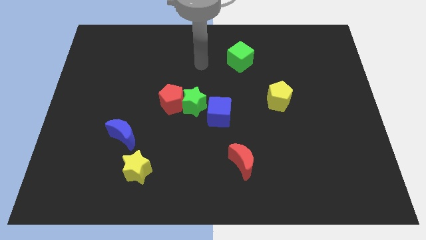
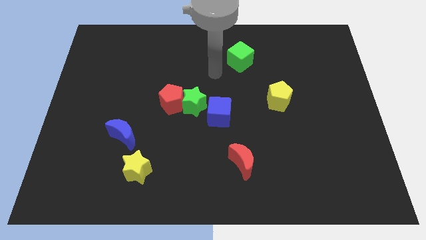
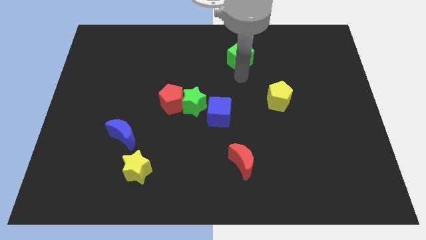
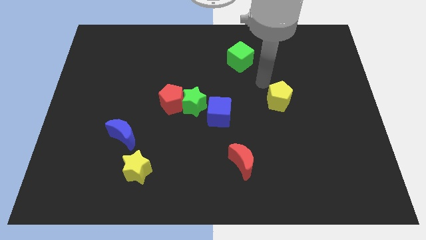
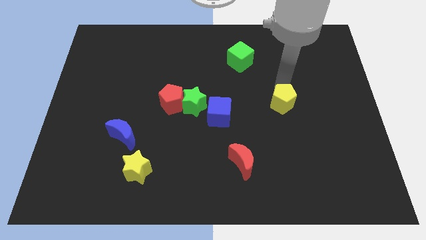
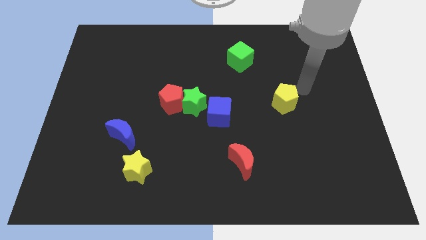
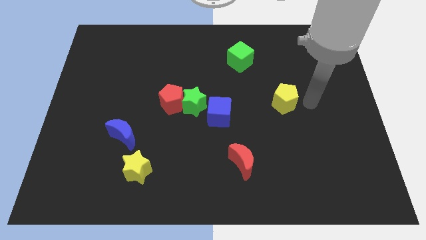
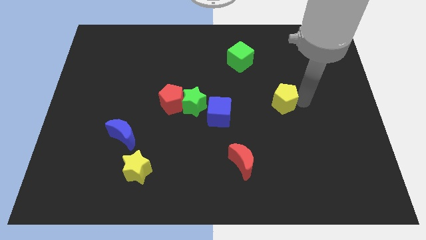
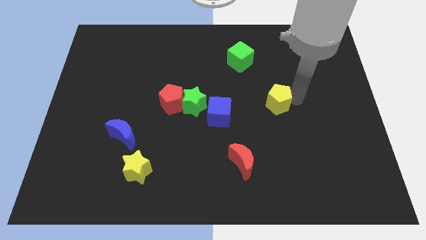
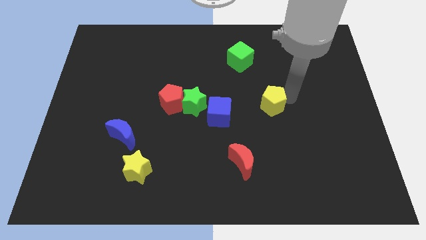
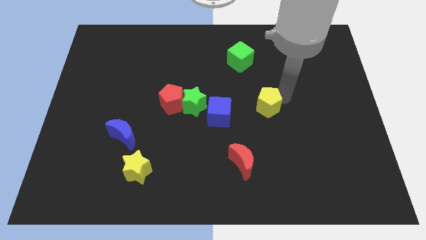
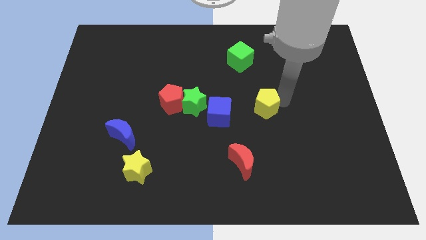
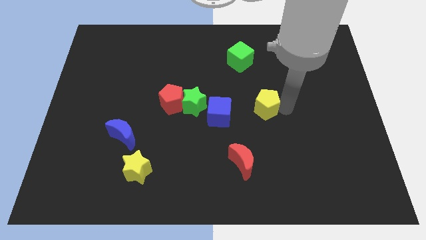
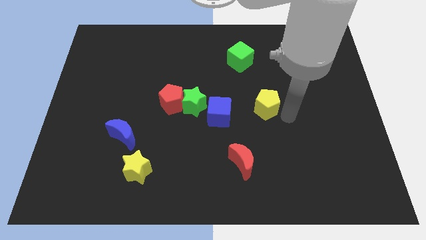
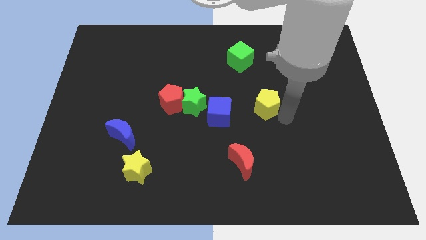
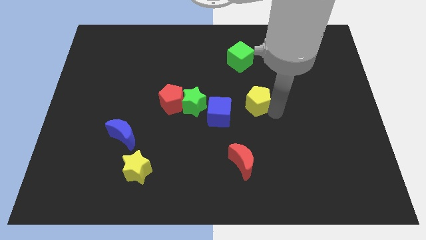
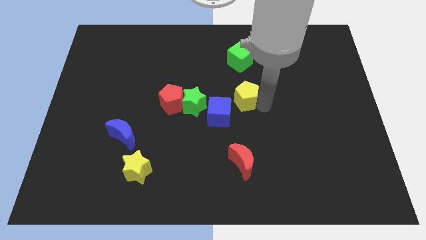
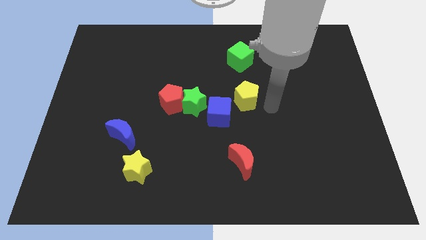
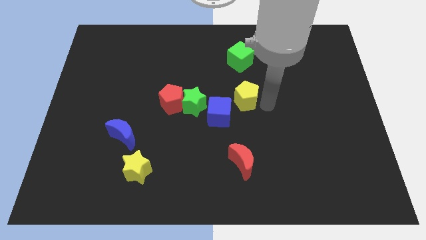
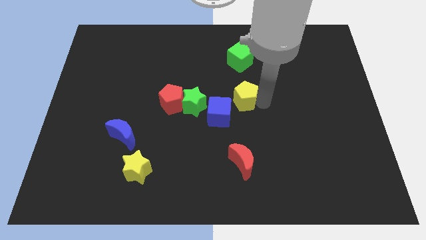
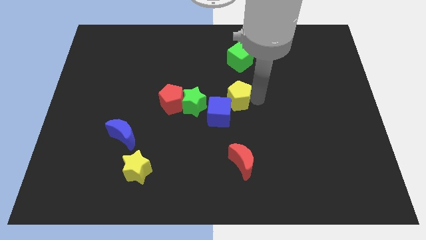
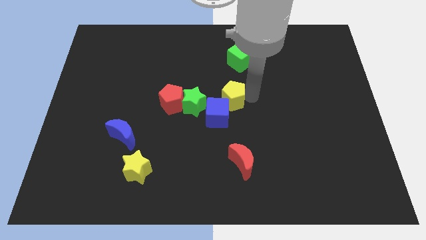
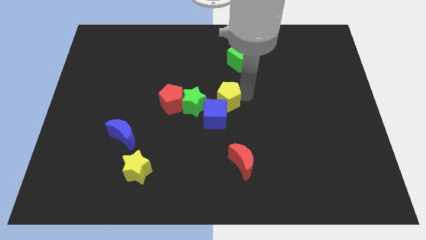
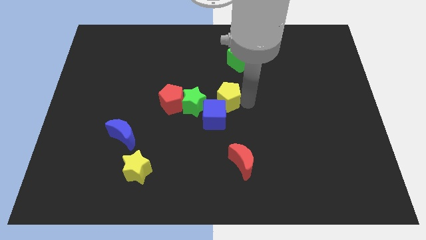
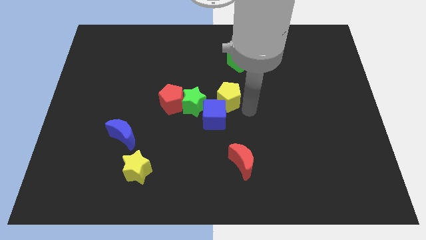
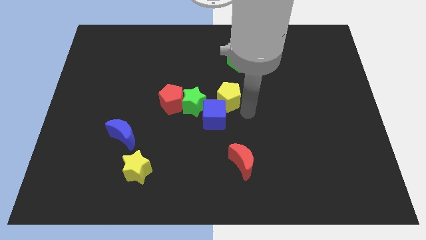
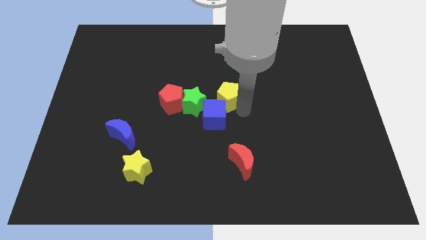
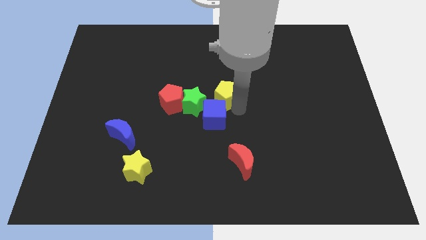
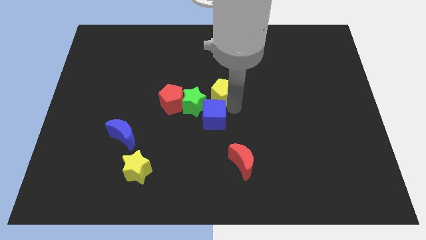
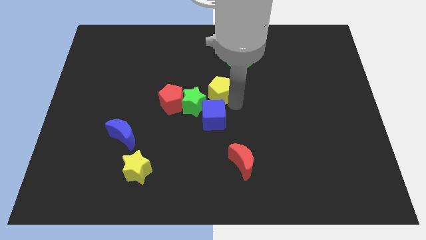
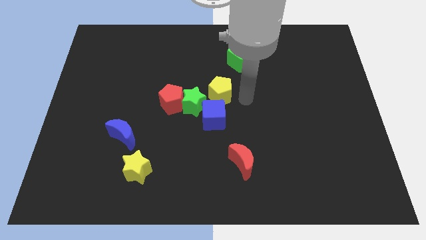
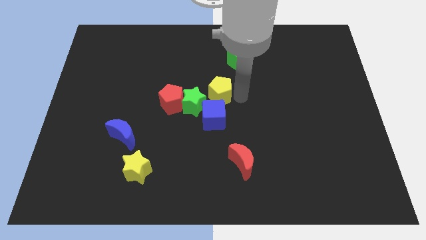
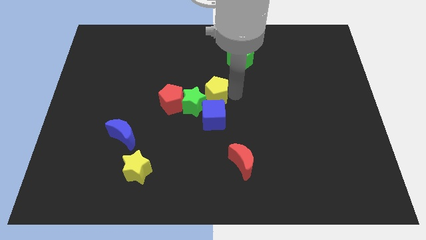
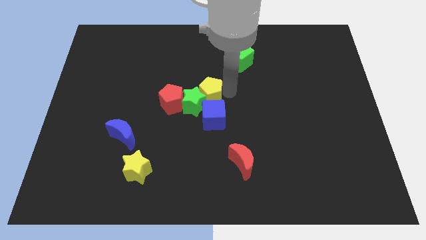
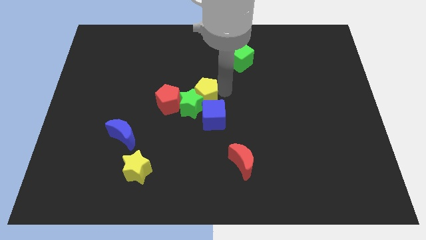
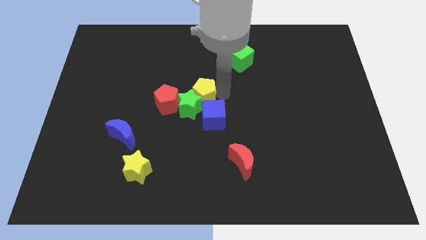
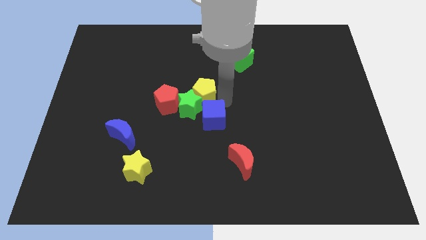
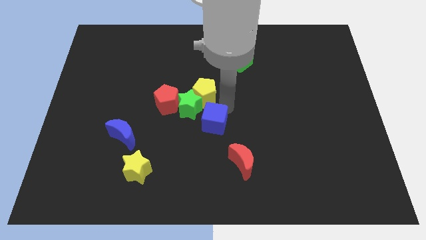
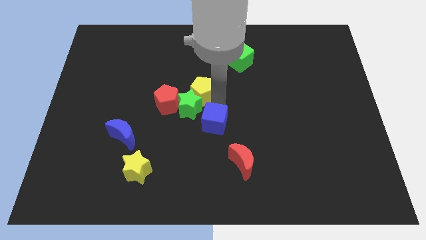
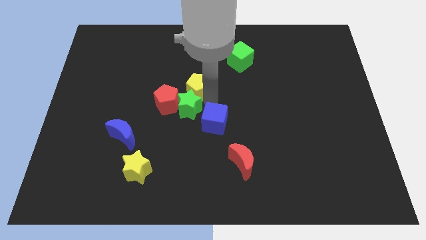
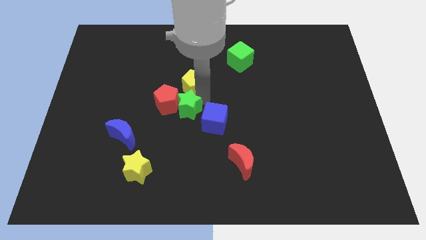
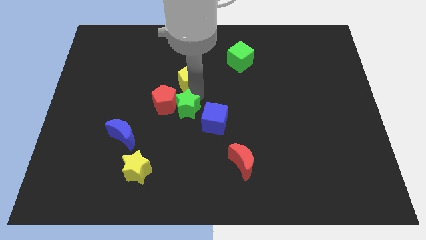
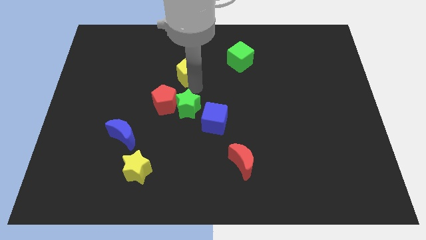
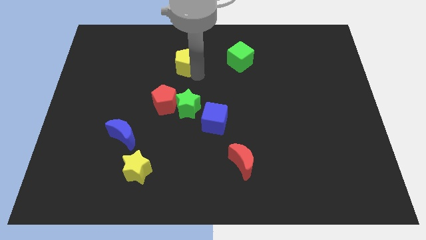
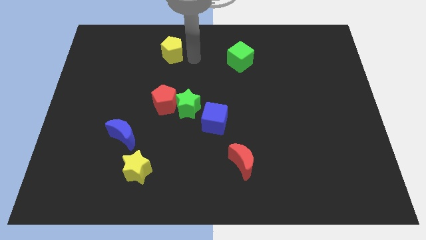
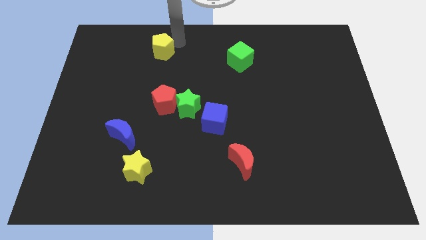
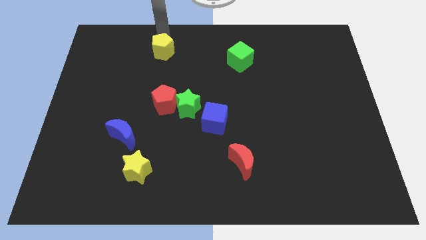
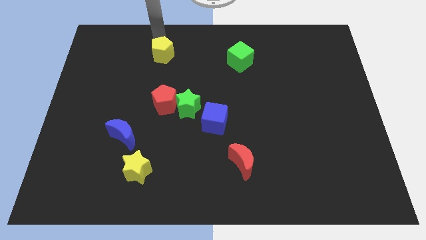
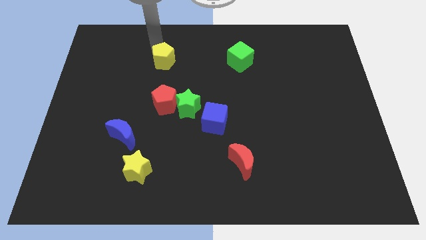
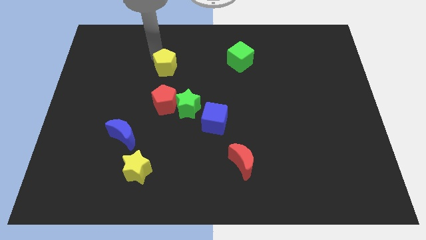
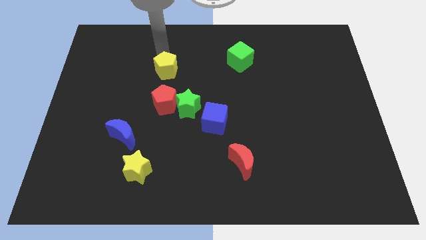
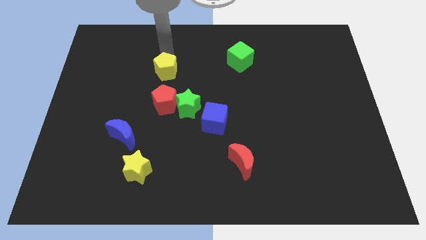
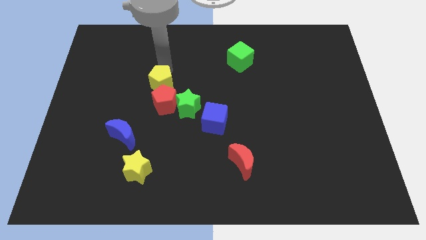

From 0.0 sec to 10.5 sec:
slide the yellow pentagon next to the red pentagon

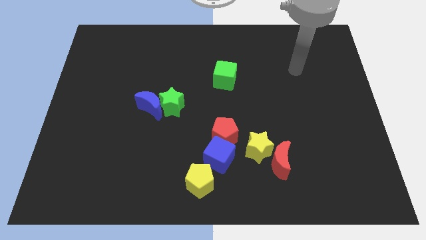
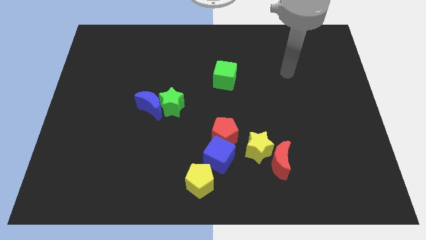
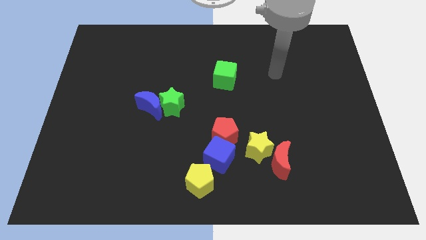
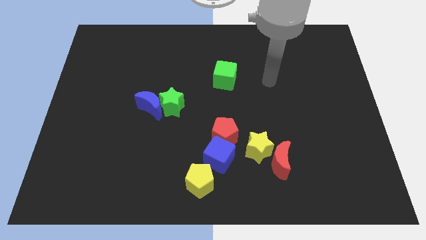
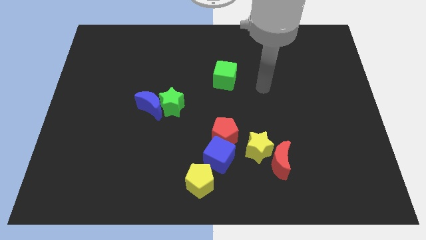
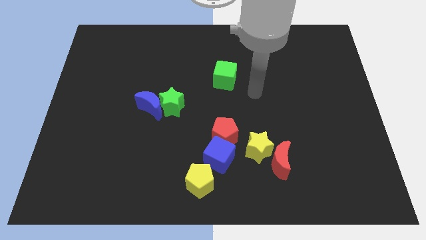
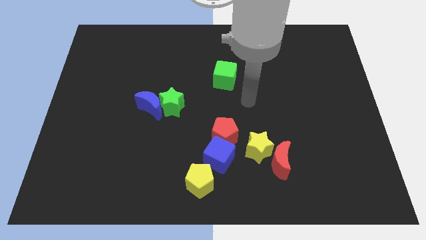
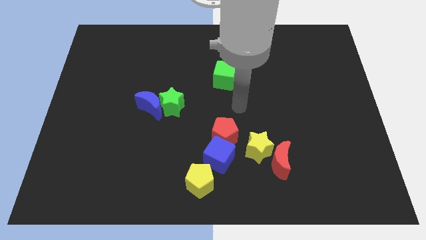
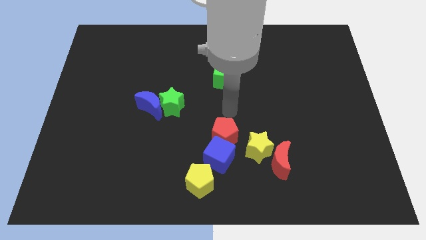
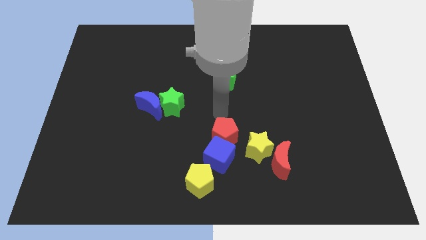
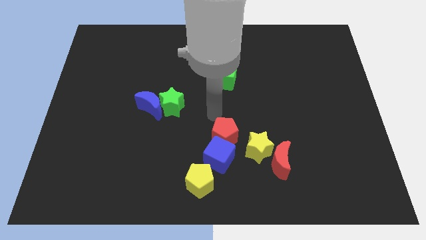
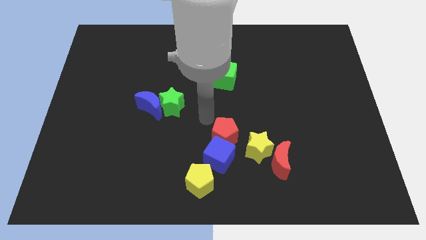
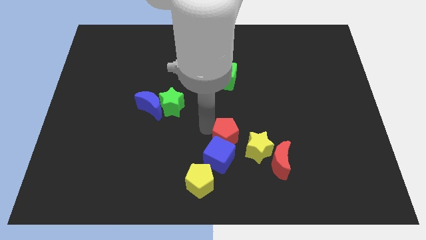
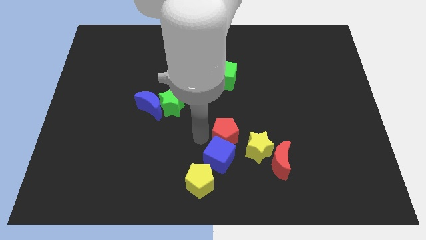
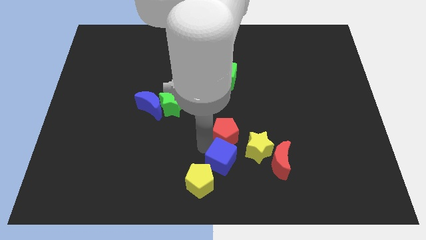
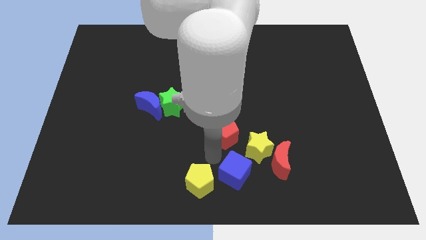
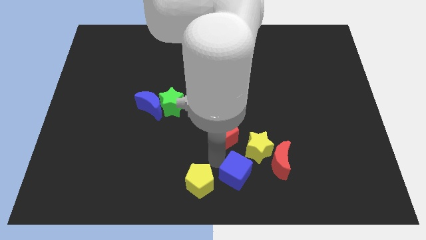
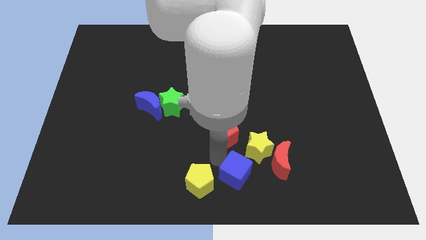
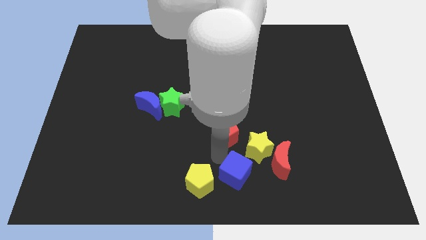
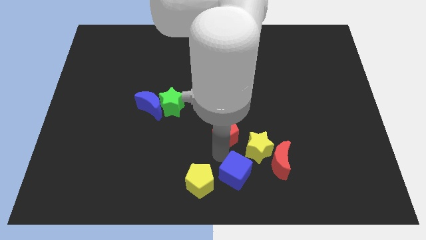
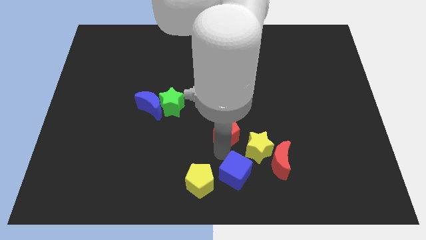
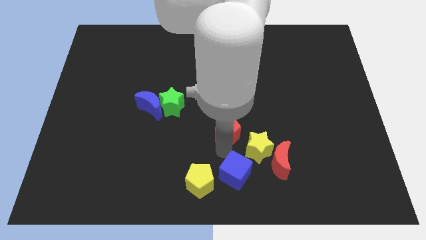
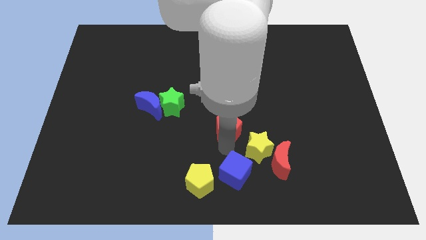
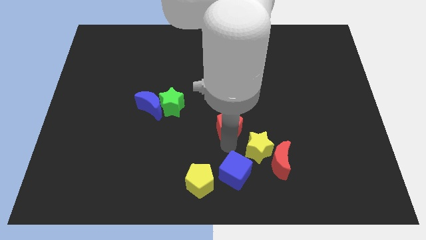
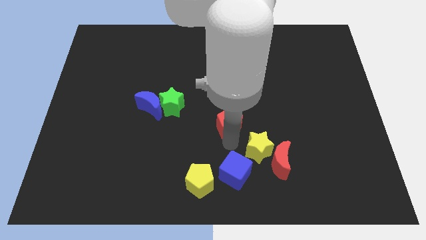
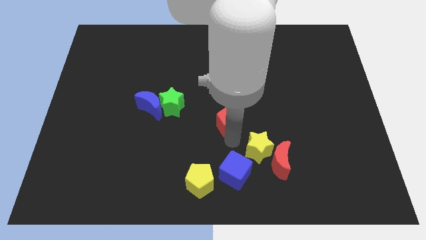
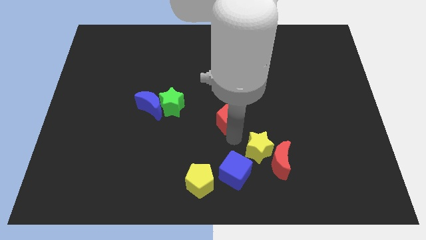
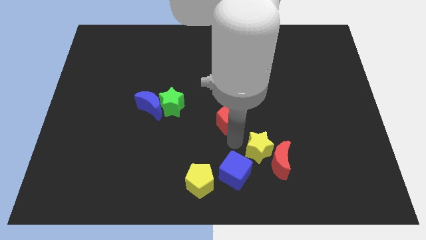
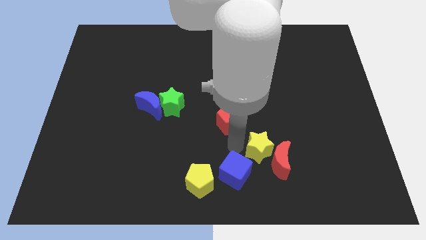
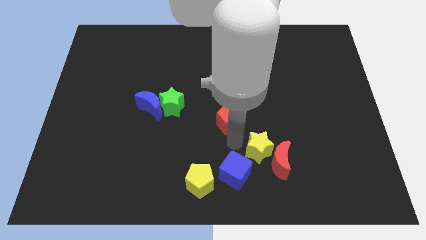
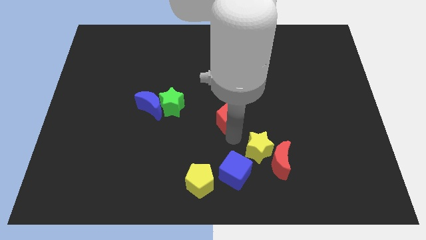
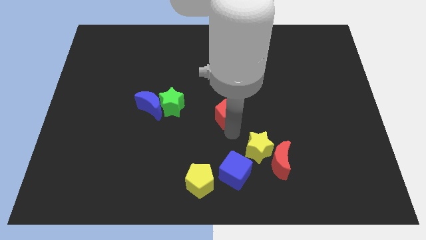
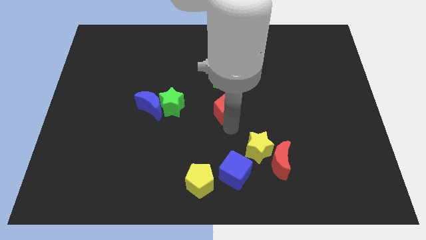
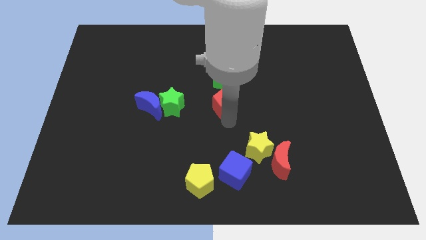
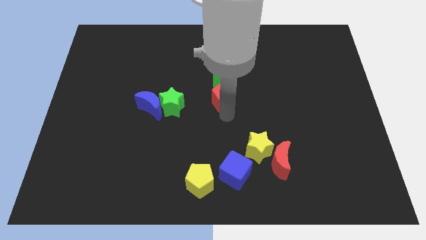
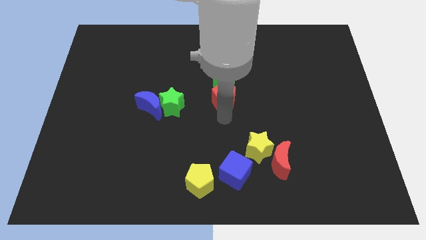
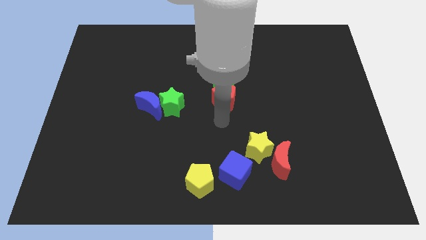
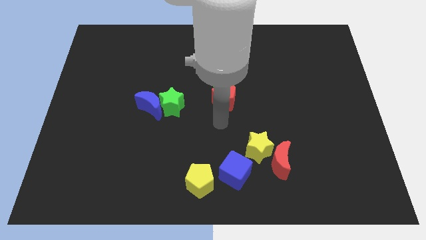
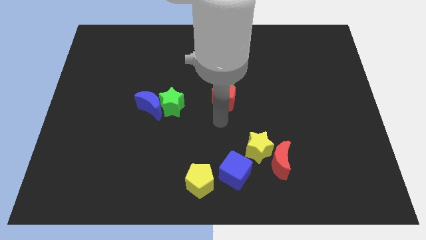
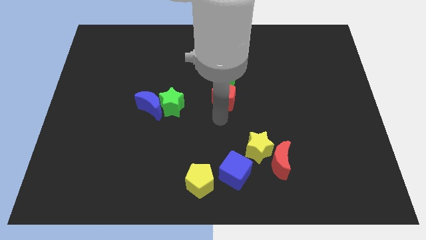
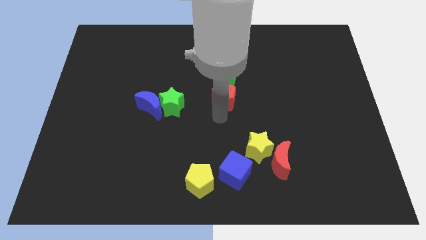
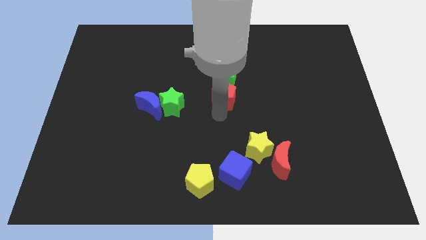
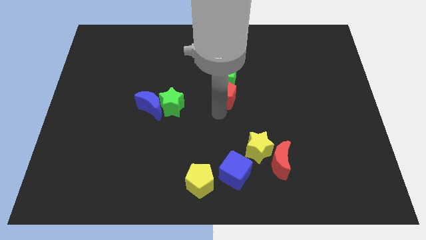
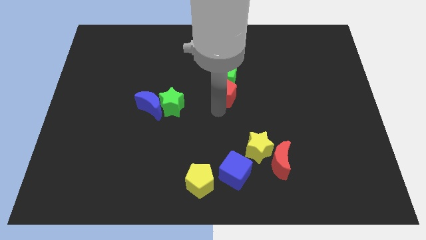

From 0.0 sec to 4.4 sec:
put the red pentagon towards the green cube
